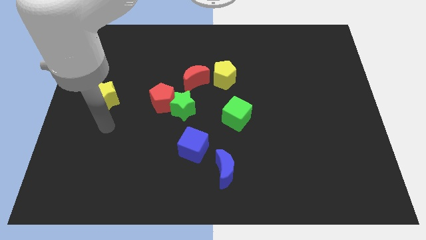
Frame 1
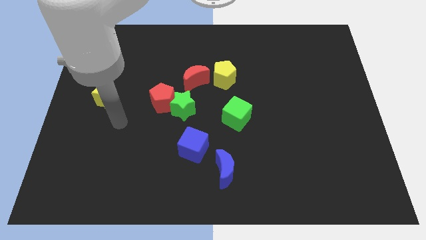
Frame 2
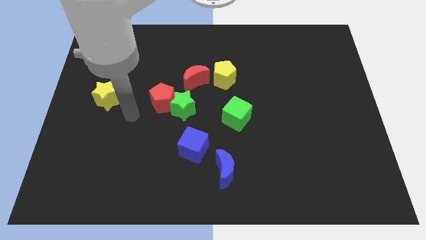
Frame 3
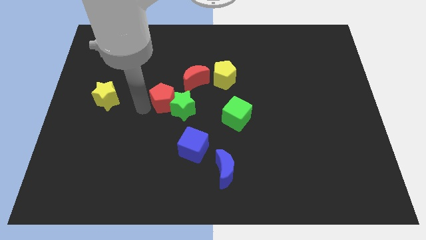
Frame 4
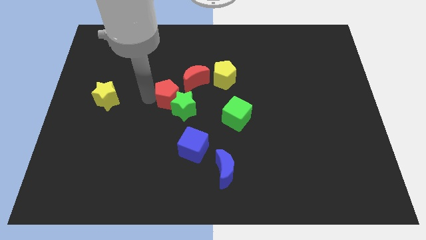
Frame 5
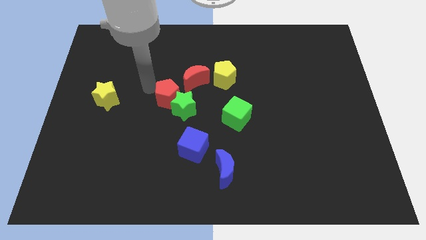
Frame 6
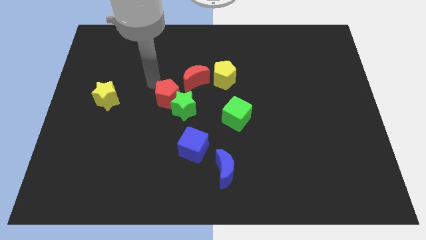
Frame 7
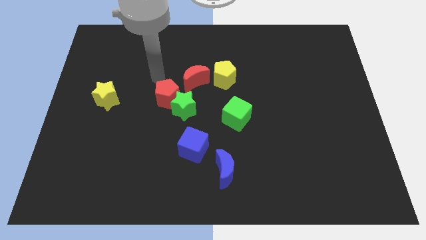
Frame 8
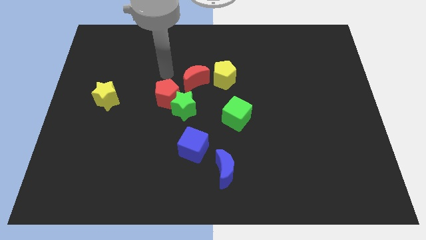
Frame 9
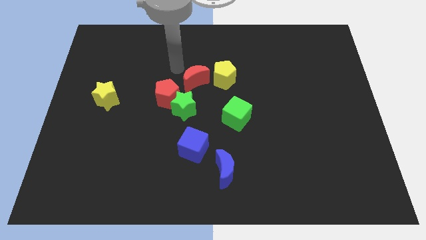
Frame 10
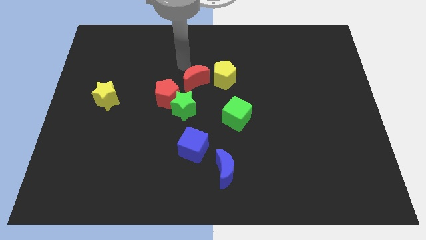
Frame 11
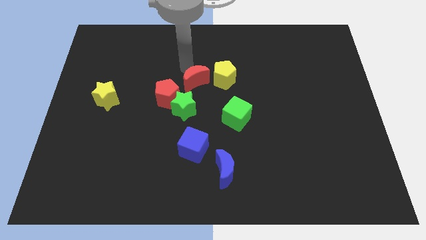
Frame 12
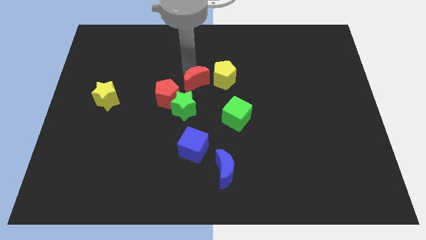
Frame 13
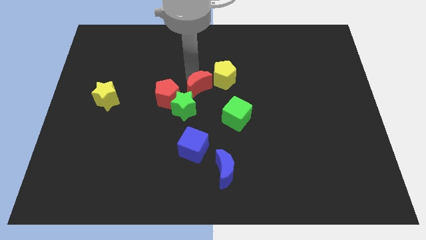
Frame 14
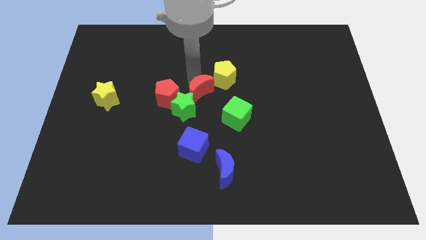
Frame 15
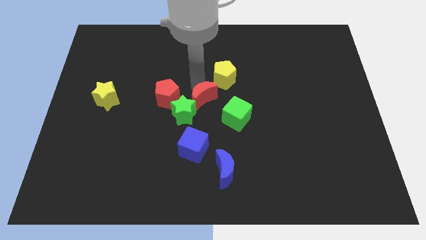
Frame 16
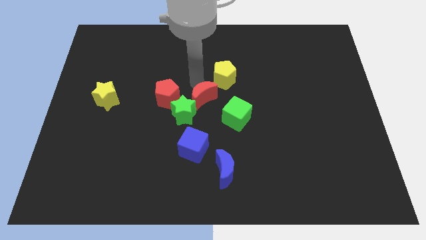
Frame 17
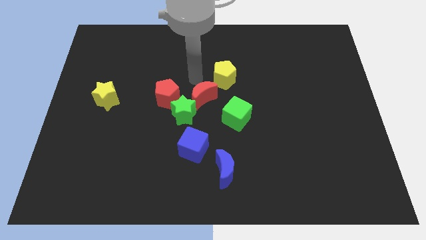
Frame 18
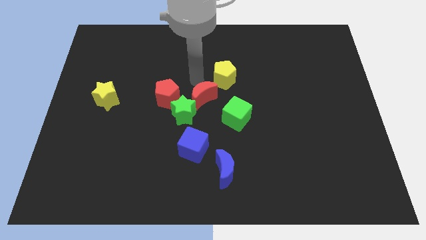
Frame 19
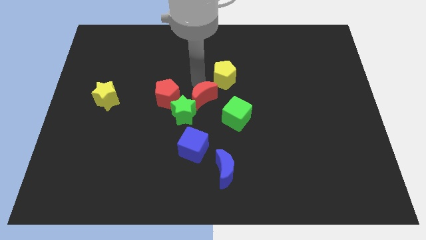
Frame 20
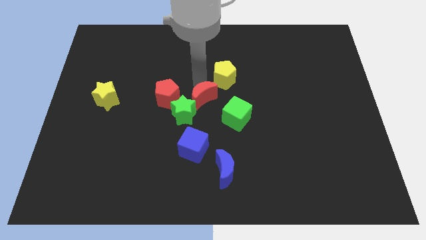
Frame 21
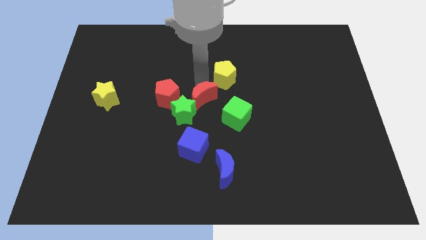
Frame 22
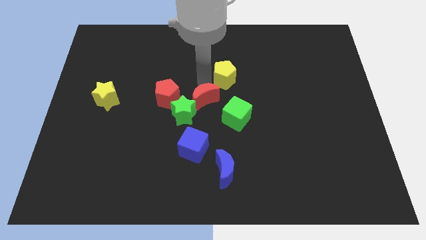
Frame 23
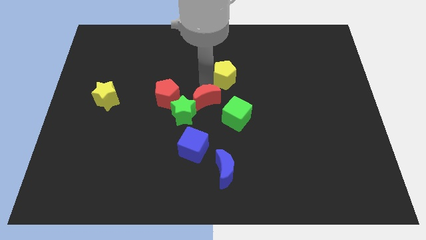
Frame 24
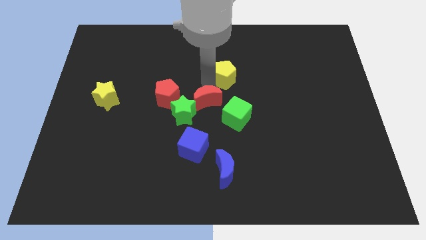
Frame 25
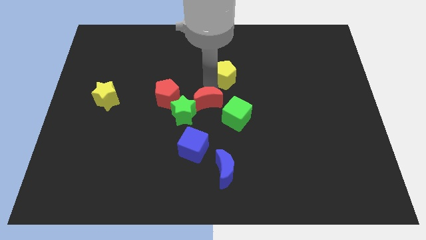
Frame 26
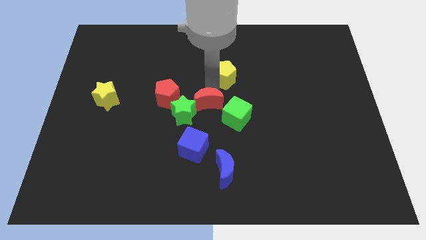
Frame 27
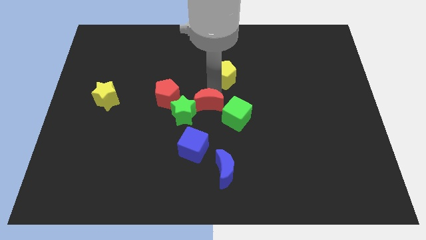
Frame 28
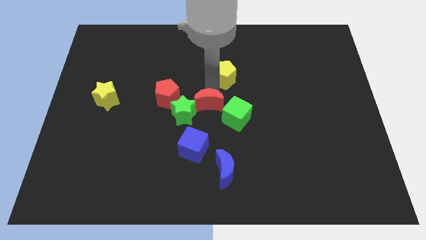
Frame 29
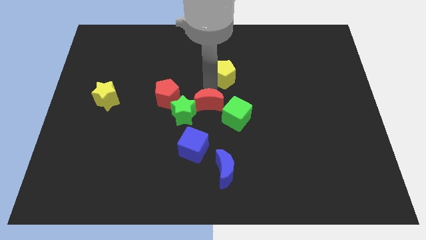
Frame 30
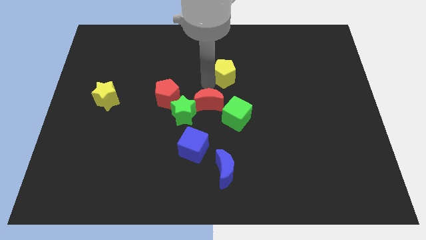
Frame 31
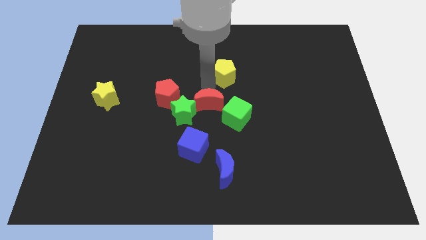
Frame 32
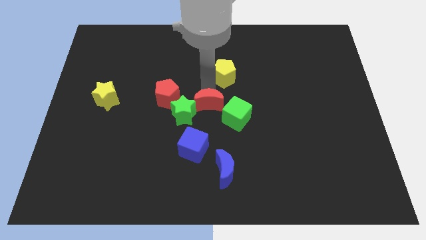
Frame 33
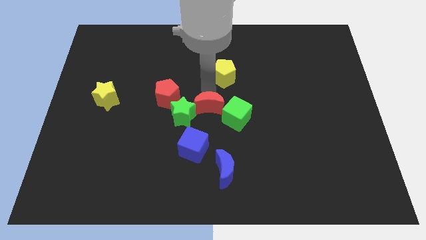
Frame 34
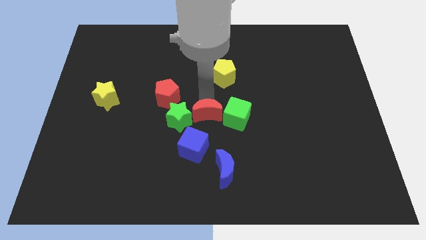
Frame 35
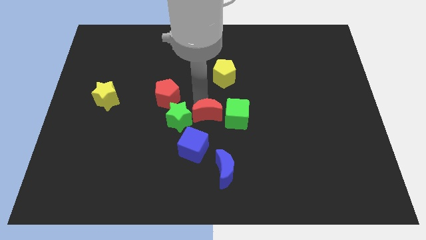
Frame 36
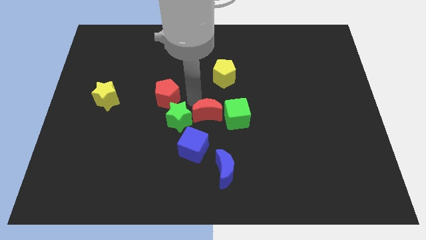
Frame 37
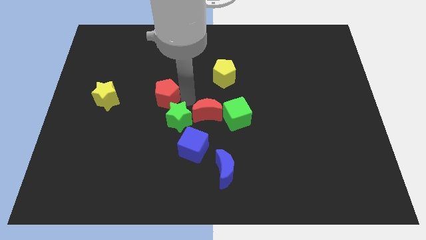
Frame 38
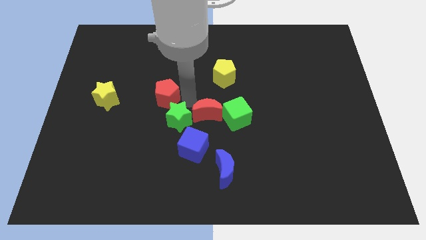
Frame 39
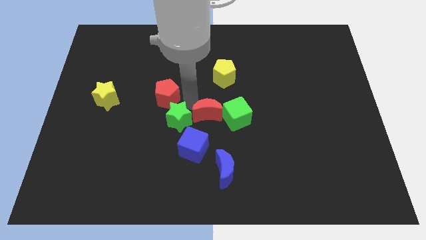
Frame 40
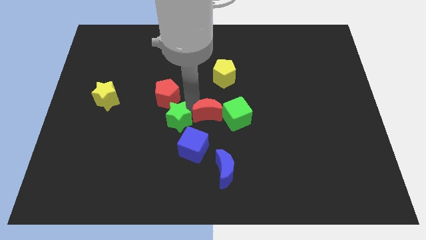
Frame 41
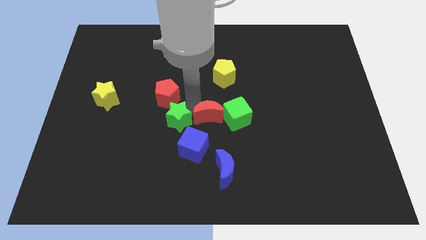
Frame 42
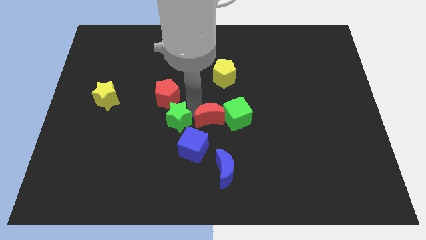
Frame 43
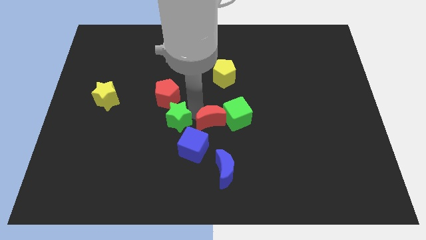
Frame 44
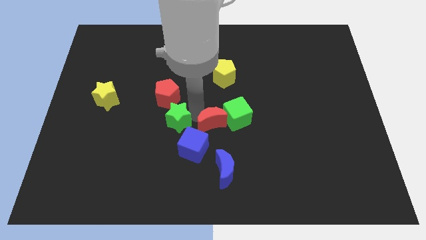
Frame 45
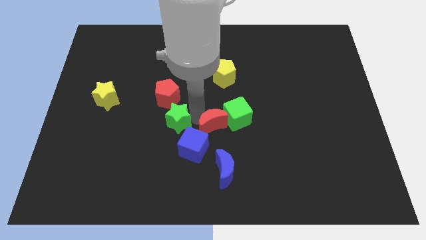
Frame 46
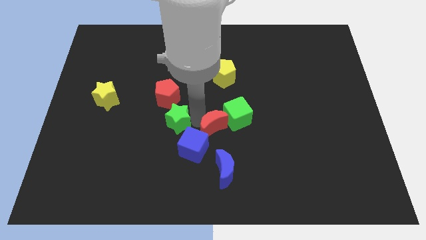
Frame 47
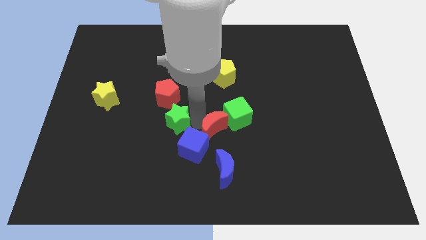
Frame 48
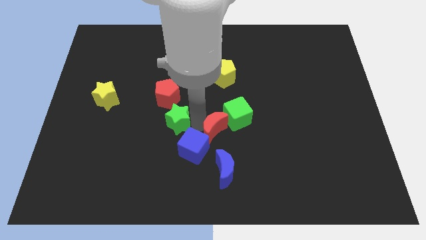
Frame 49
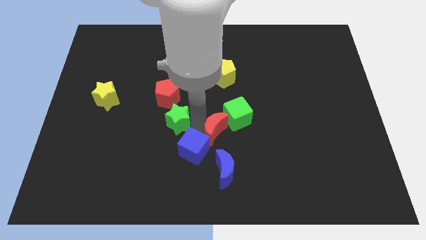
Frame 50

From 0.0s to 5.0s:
push the red moon to the right side of the blue cube

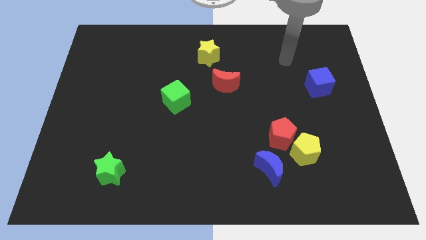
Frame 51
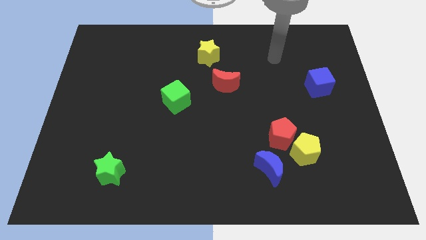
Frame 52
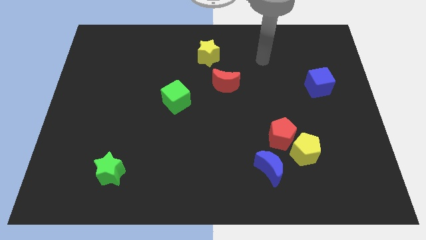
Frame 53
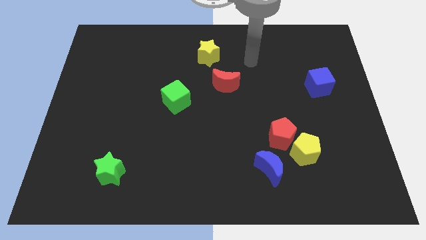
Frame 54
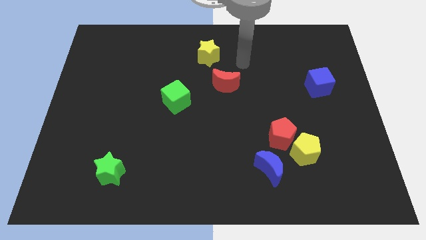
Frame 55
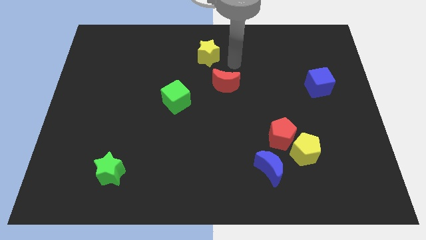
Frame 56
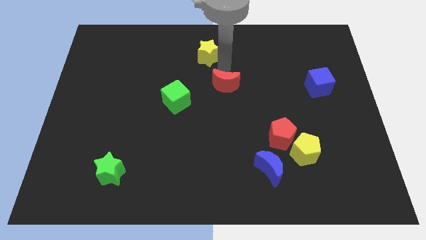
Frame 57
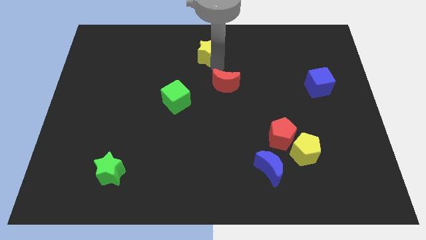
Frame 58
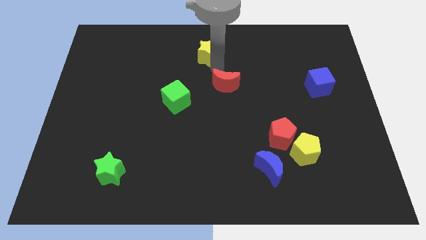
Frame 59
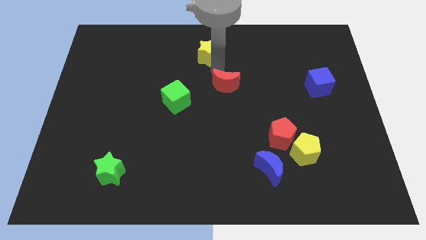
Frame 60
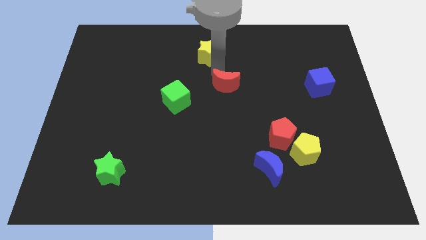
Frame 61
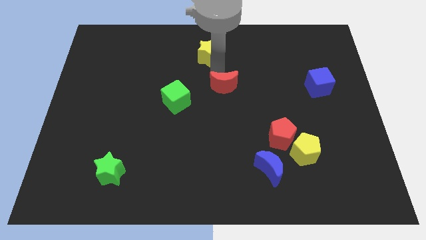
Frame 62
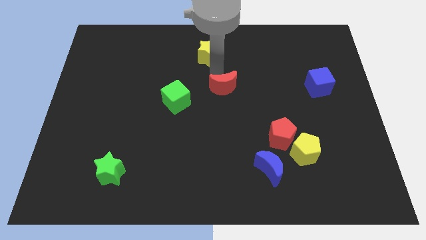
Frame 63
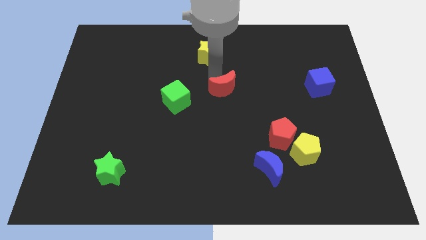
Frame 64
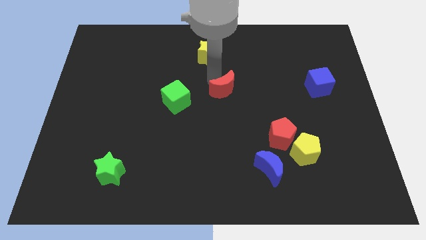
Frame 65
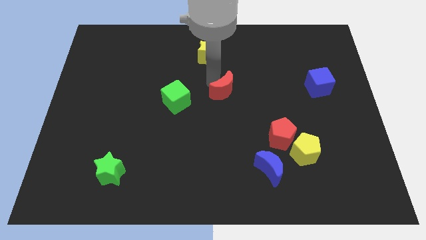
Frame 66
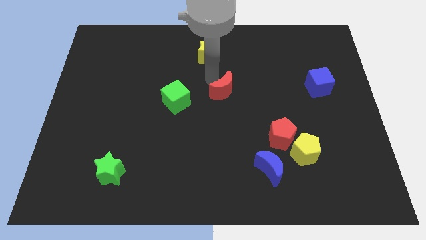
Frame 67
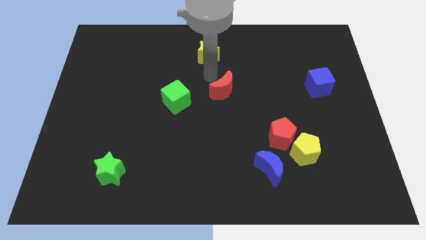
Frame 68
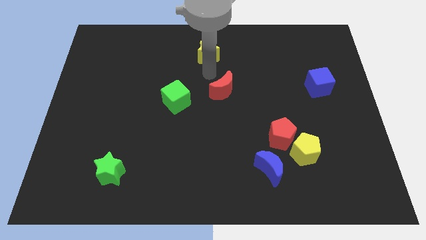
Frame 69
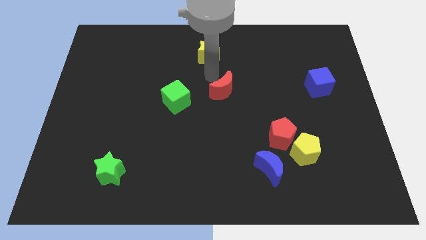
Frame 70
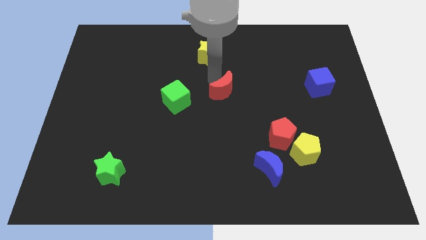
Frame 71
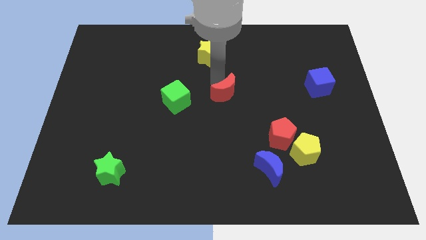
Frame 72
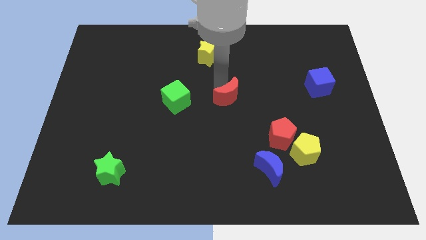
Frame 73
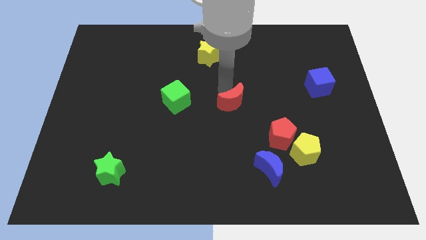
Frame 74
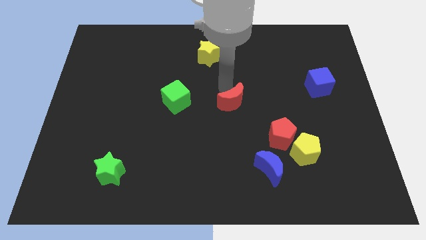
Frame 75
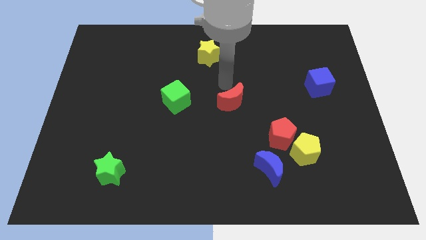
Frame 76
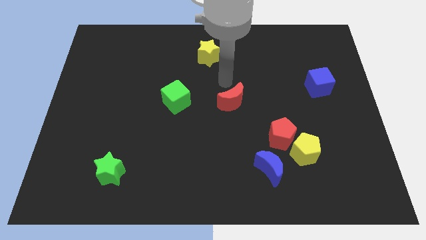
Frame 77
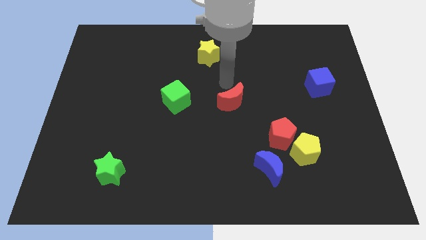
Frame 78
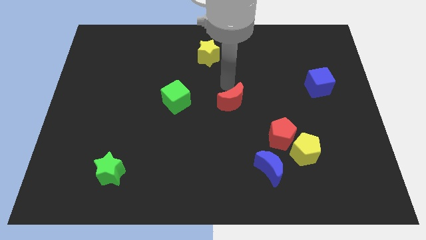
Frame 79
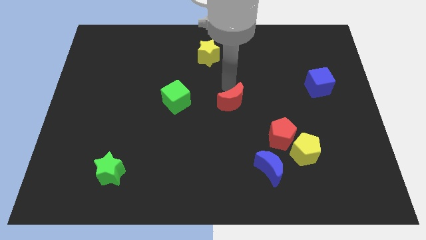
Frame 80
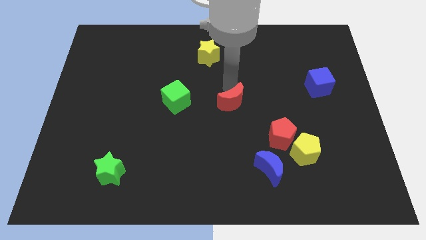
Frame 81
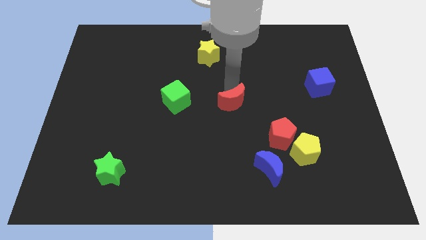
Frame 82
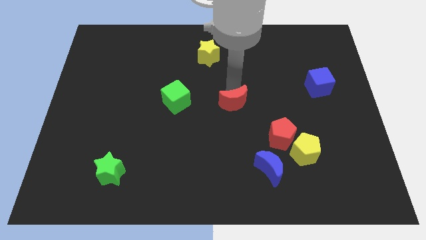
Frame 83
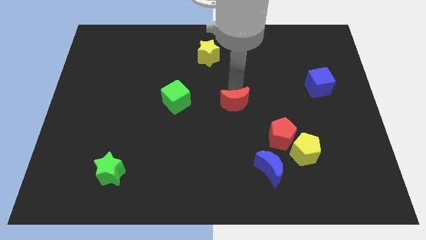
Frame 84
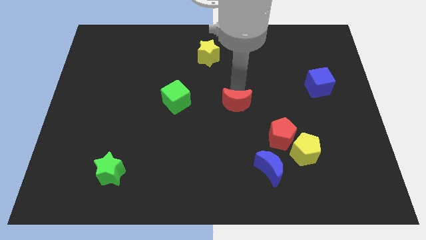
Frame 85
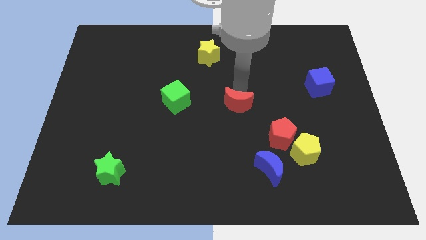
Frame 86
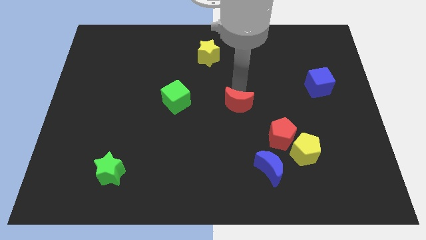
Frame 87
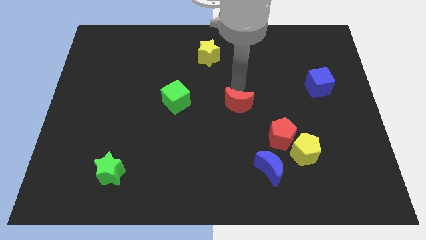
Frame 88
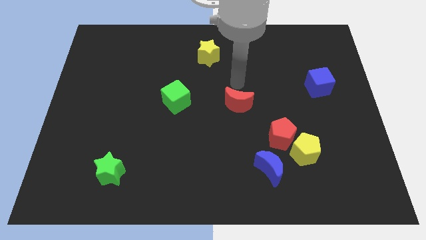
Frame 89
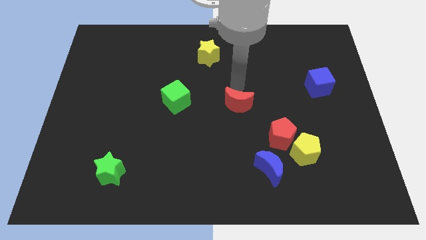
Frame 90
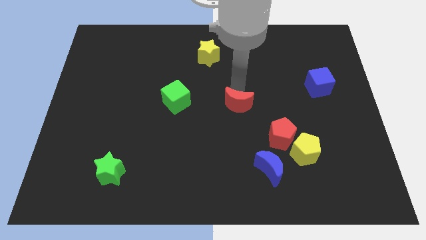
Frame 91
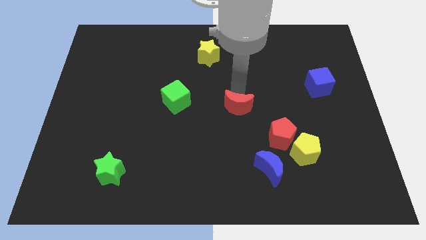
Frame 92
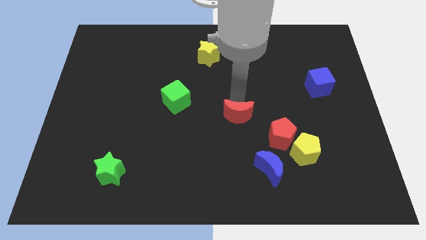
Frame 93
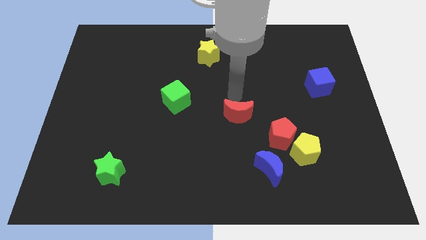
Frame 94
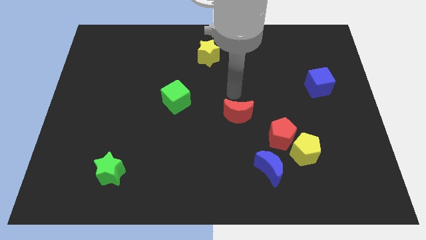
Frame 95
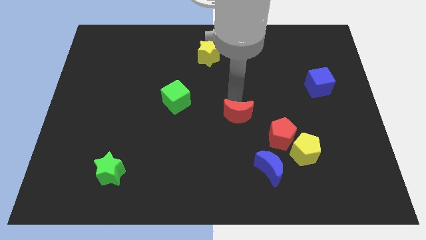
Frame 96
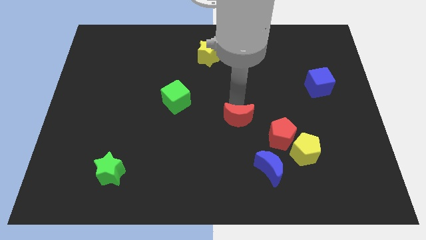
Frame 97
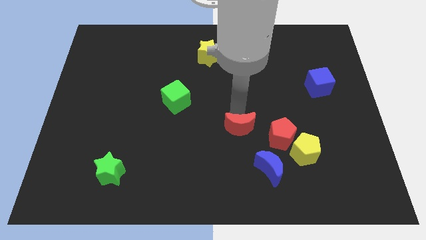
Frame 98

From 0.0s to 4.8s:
put the red moon to the top left side of the blue moon
